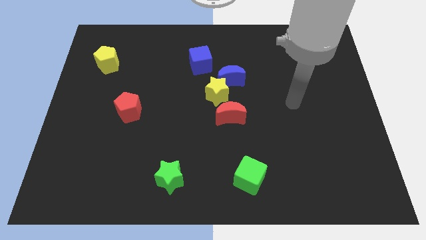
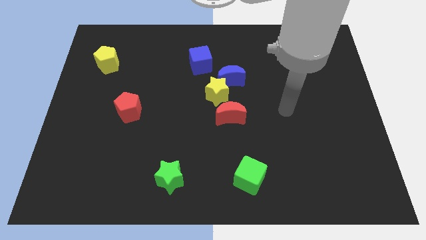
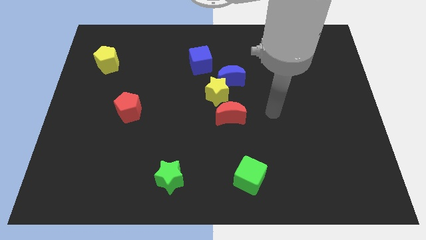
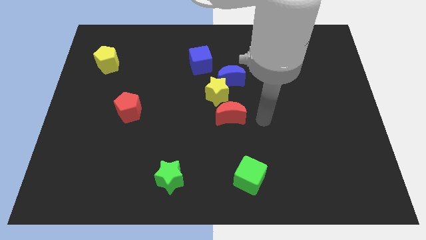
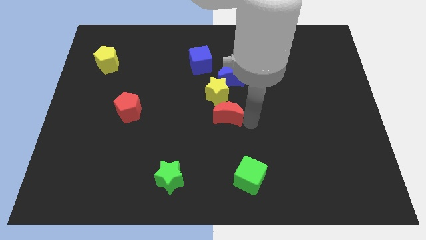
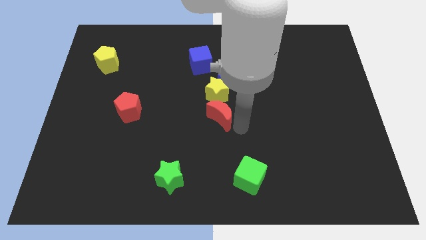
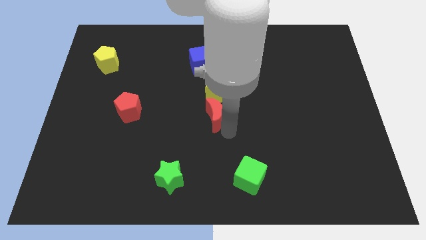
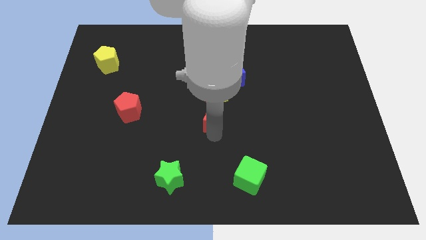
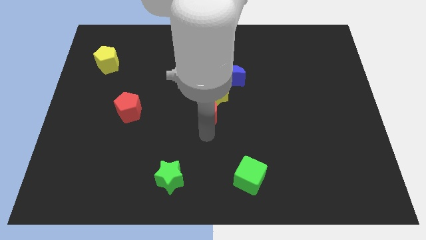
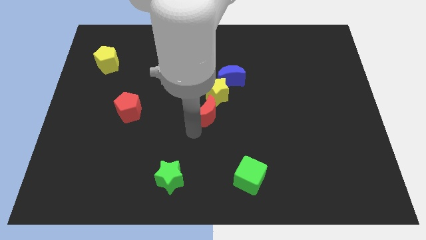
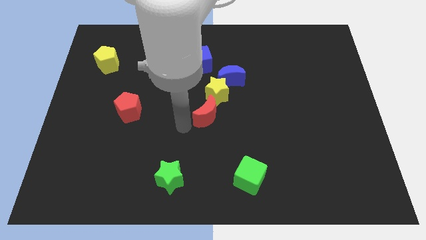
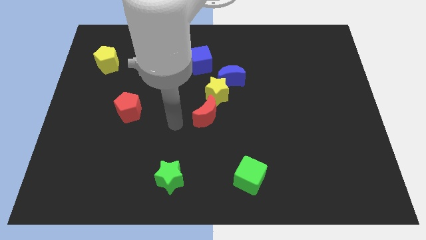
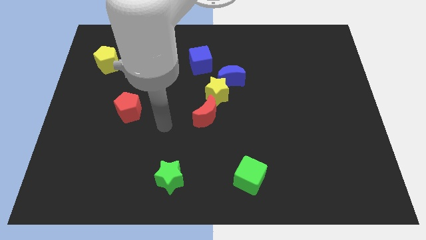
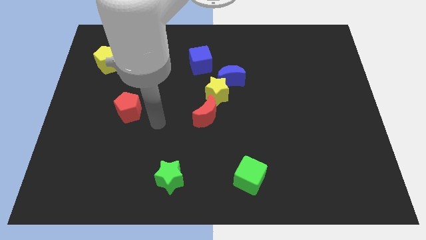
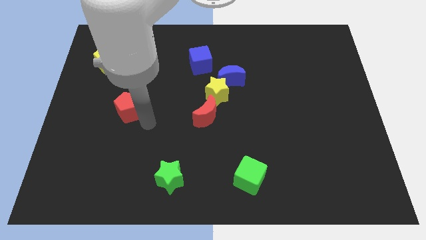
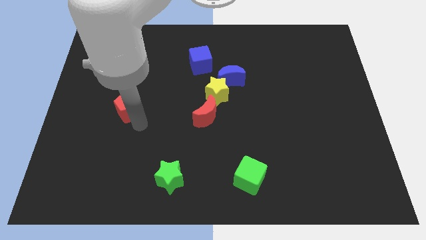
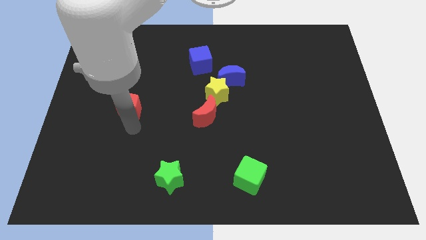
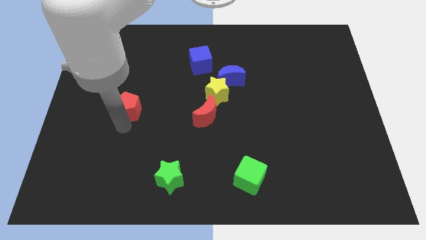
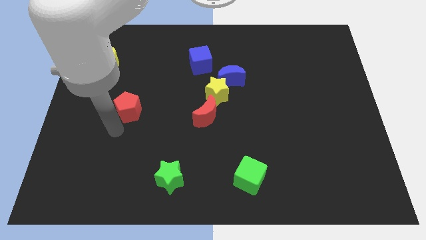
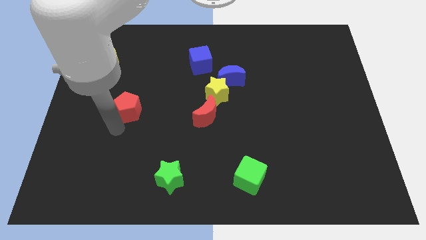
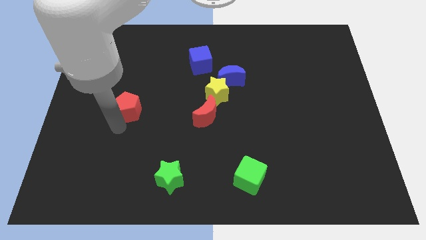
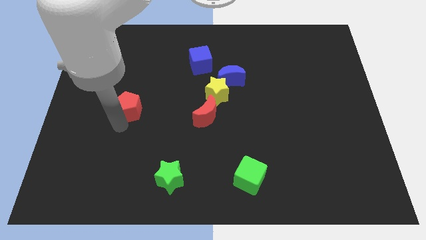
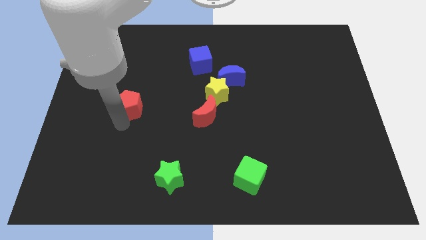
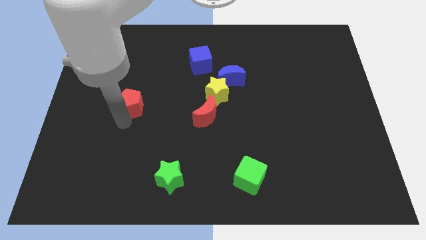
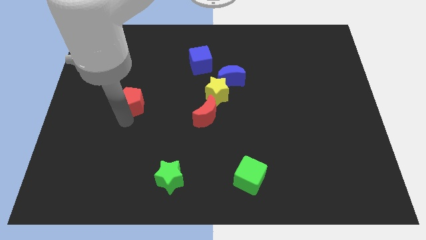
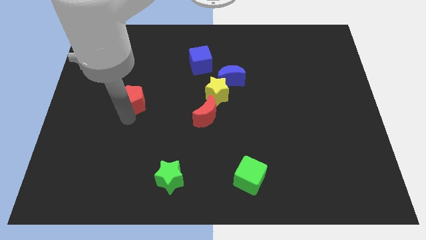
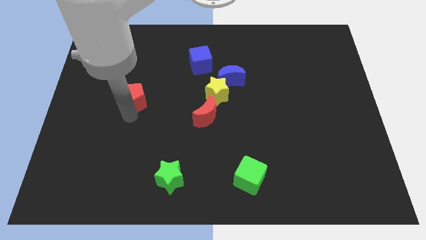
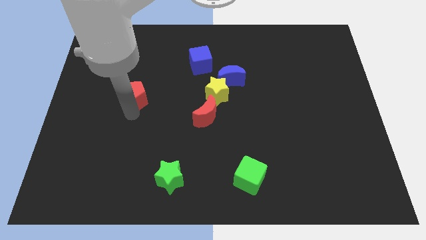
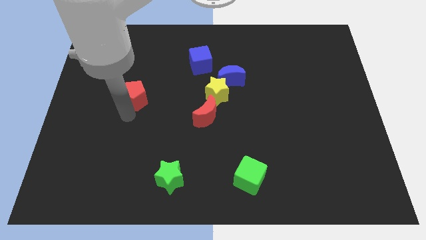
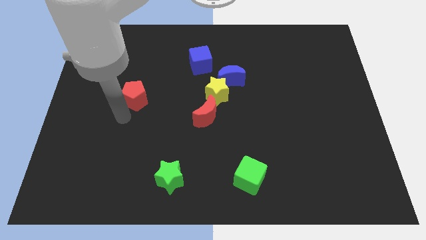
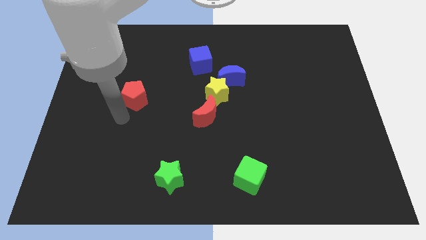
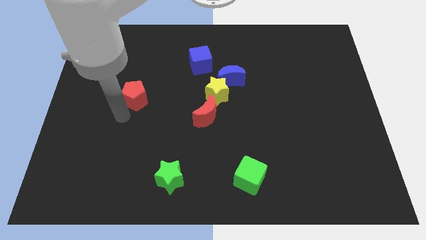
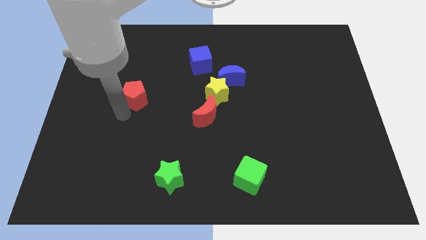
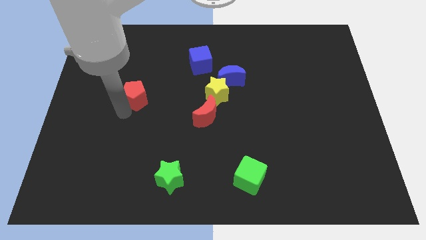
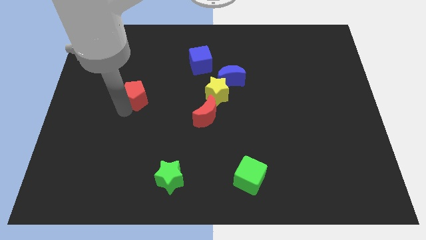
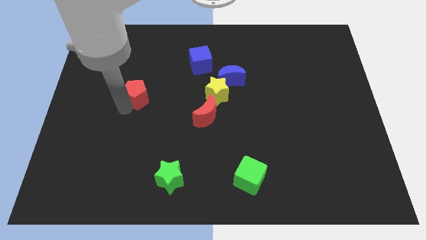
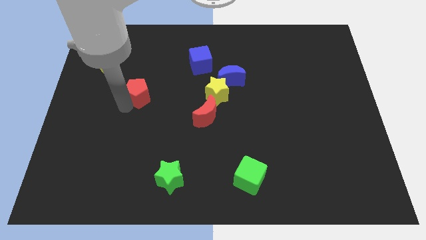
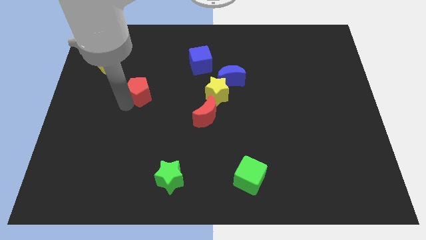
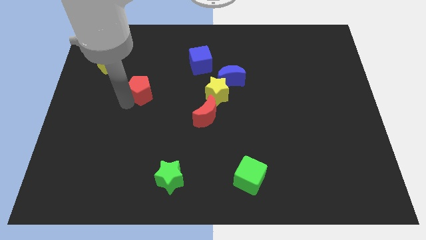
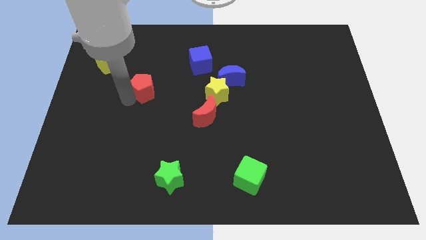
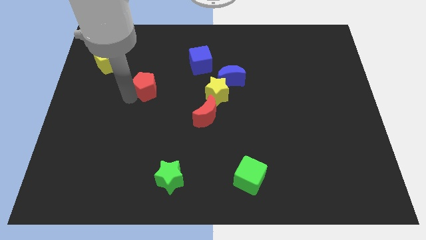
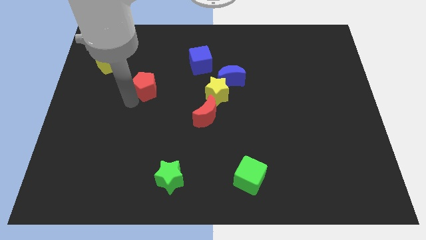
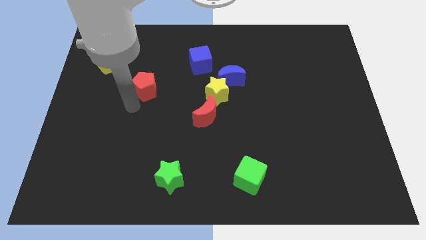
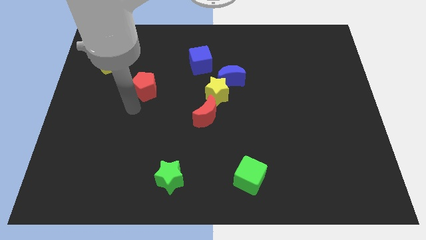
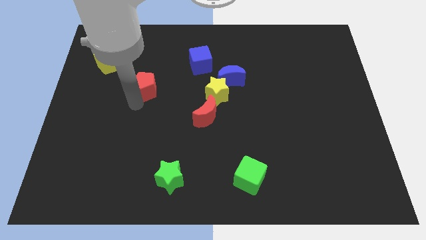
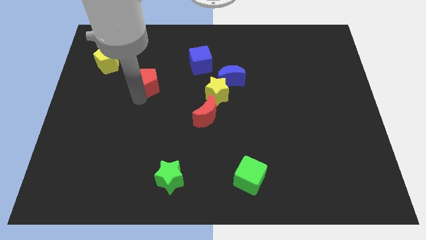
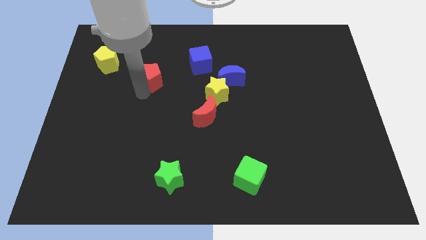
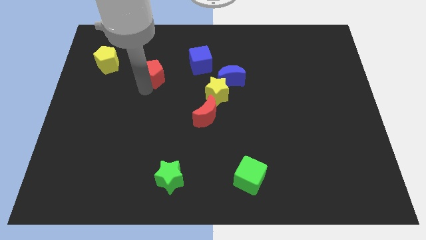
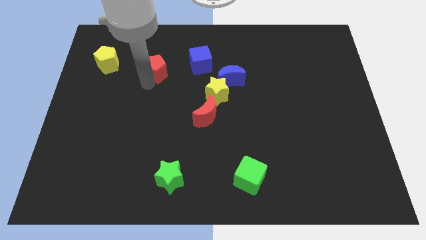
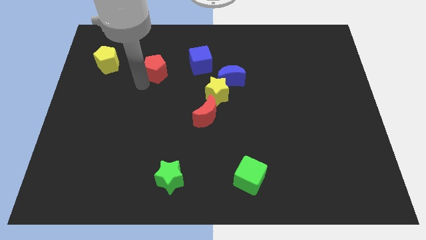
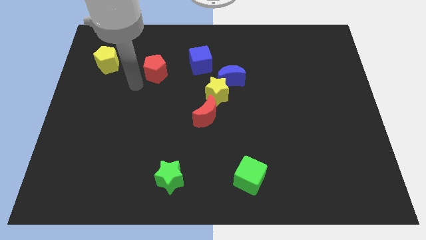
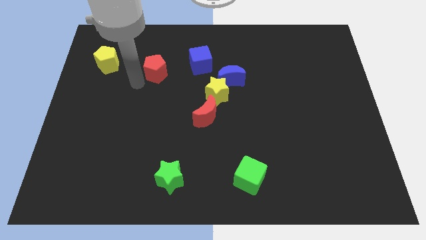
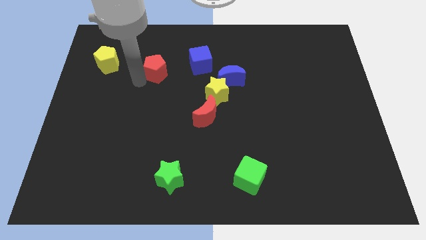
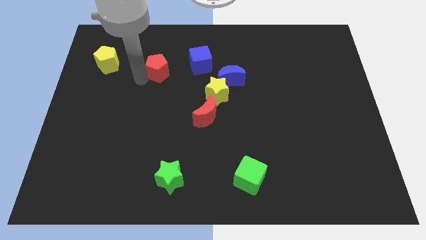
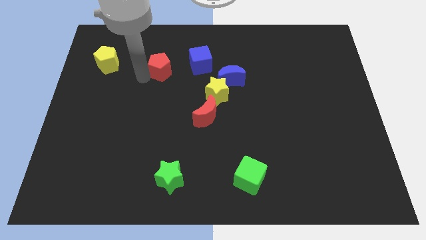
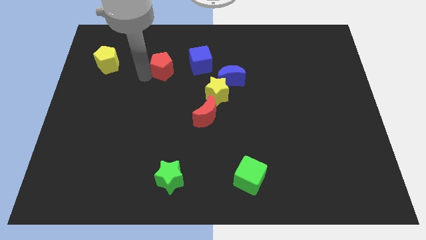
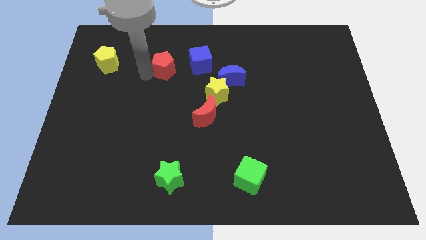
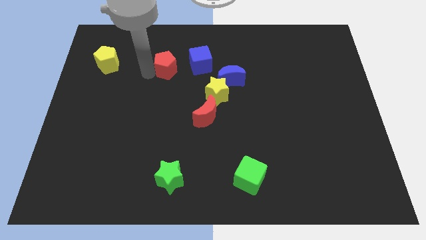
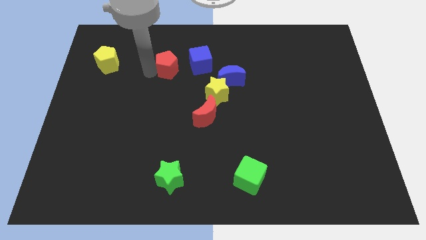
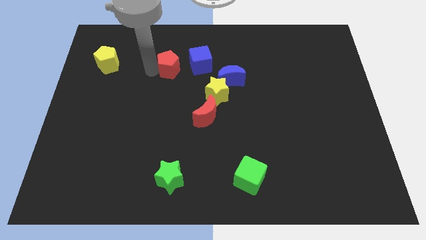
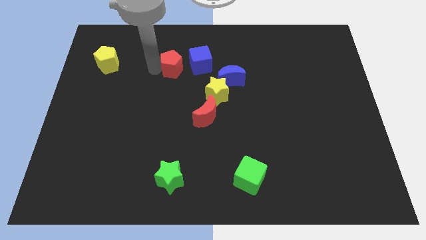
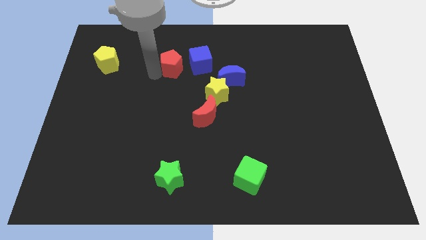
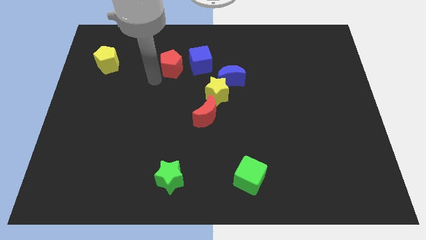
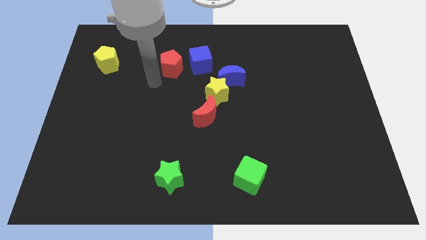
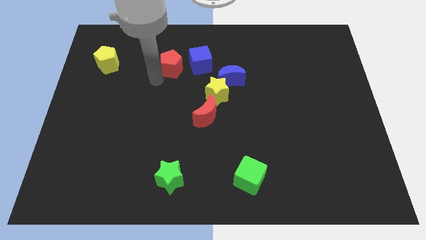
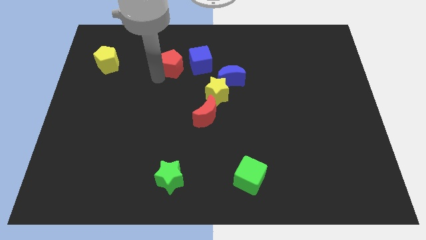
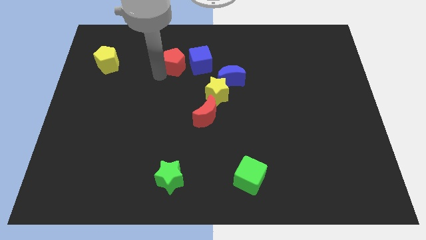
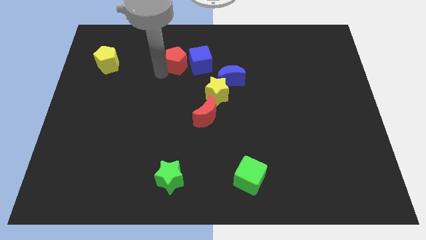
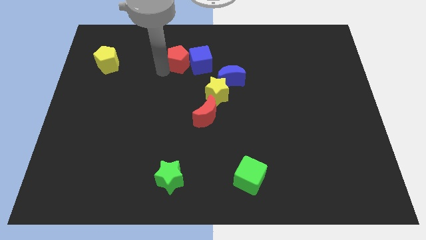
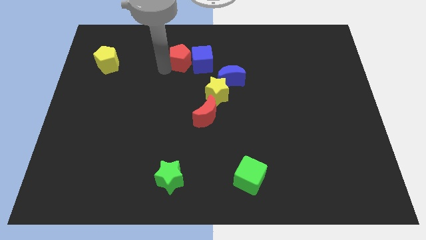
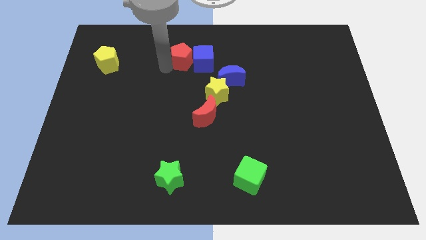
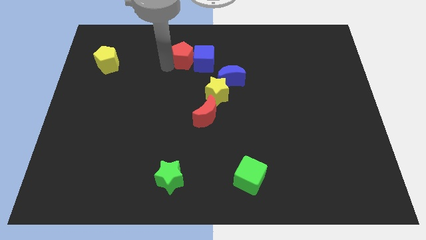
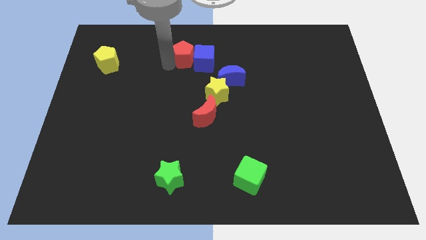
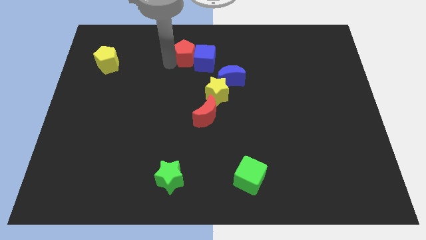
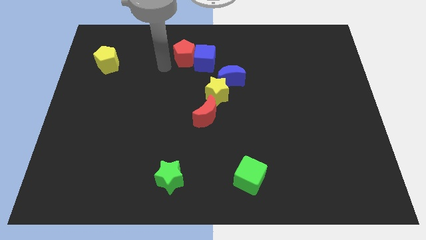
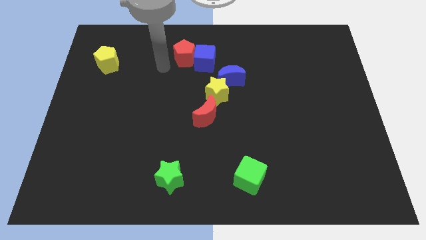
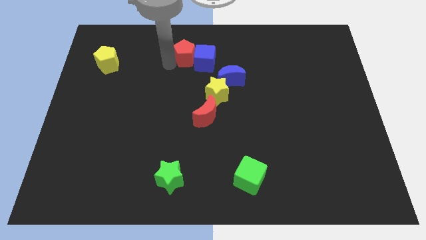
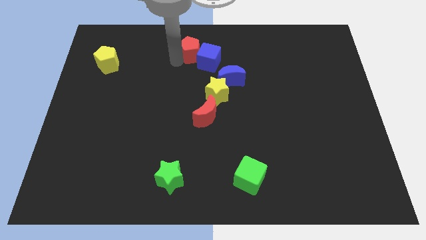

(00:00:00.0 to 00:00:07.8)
move the red pentagon to the top
